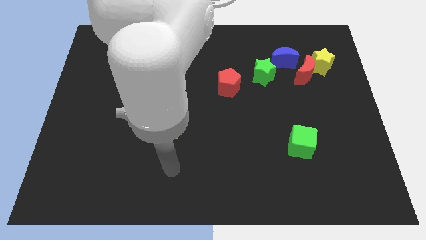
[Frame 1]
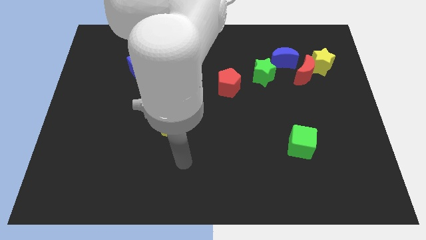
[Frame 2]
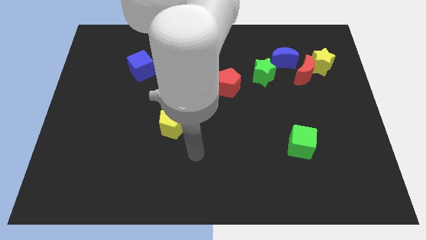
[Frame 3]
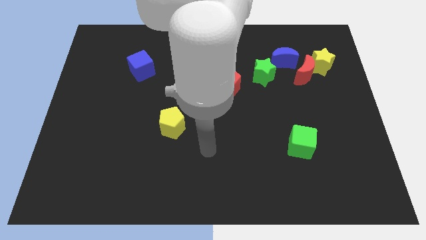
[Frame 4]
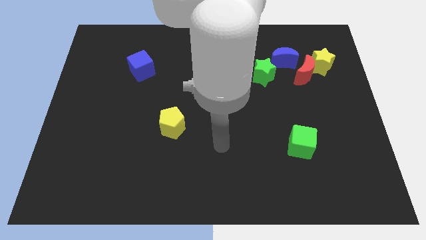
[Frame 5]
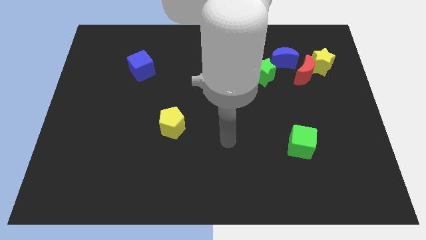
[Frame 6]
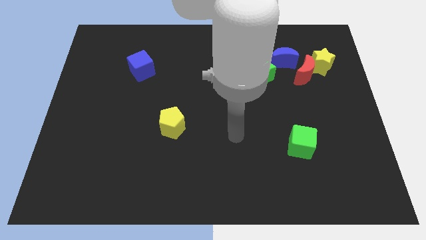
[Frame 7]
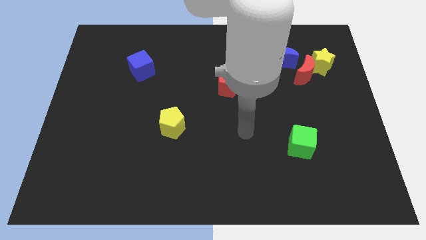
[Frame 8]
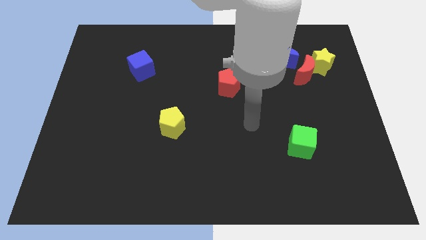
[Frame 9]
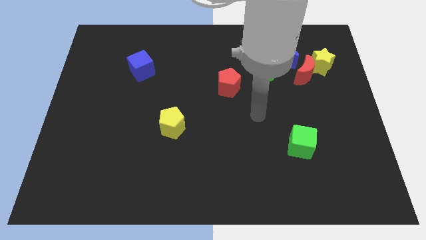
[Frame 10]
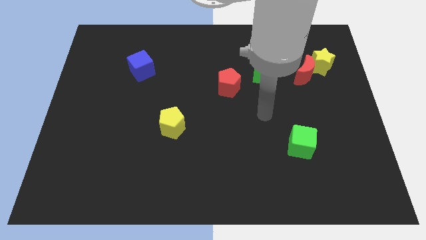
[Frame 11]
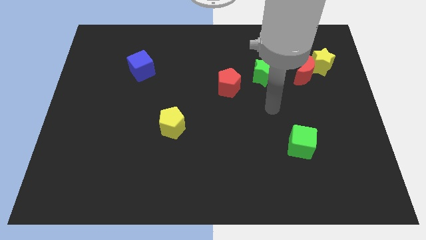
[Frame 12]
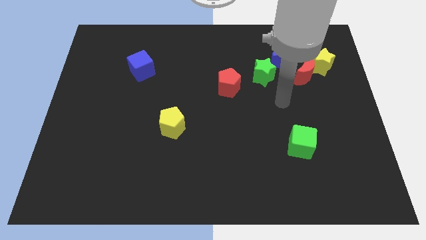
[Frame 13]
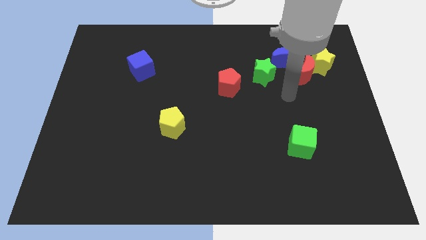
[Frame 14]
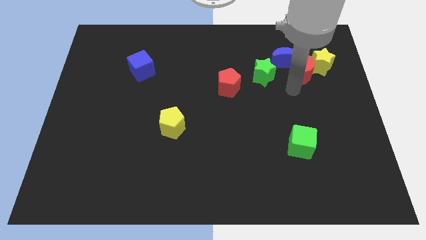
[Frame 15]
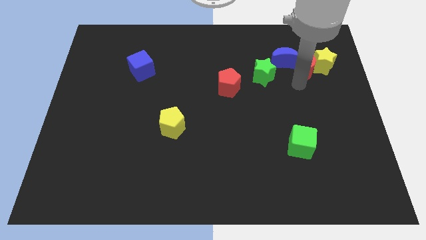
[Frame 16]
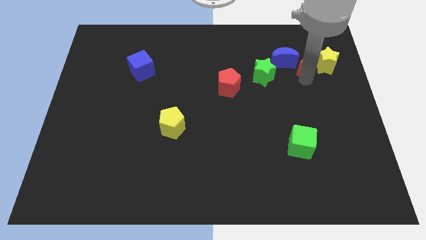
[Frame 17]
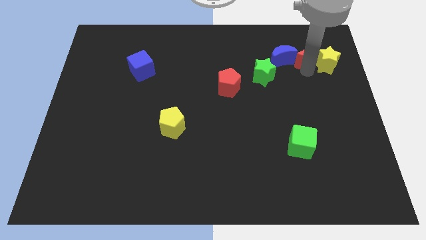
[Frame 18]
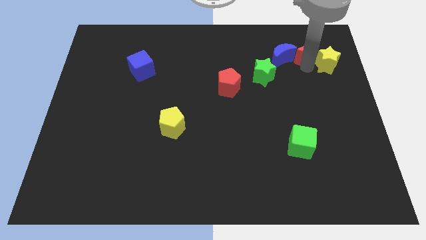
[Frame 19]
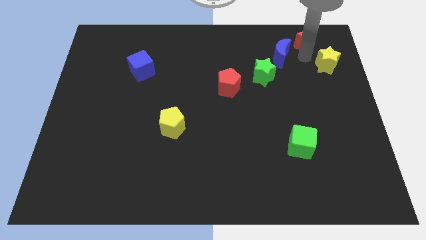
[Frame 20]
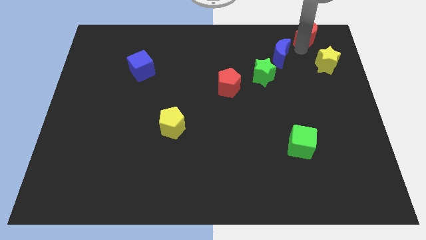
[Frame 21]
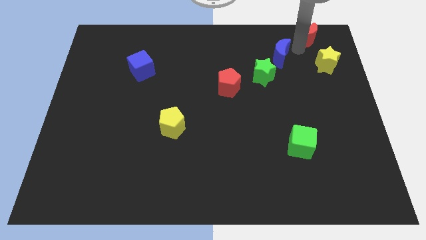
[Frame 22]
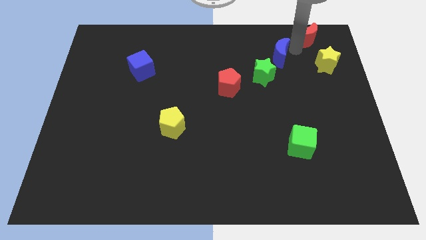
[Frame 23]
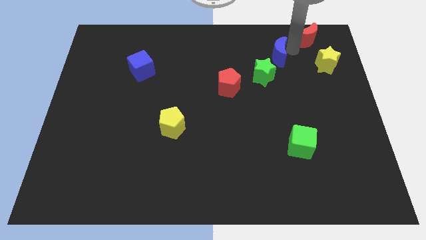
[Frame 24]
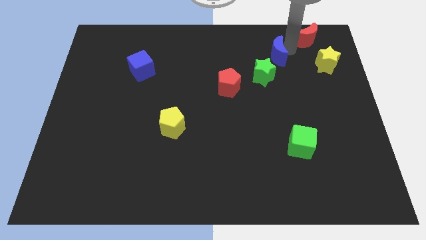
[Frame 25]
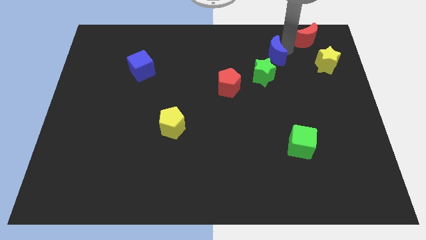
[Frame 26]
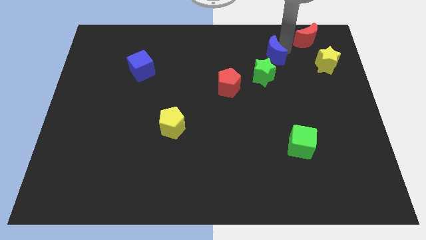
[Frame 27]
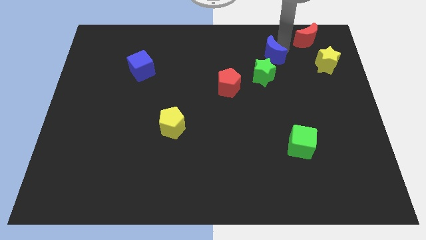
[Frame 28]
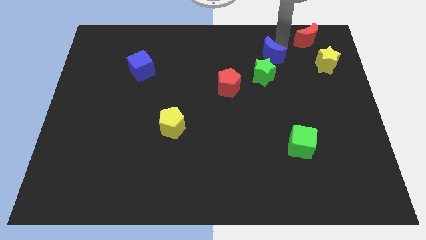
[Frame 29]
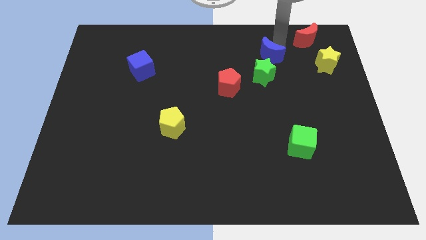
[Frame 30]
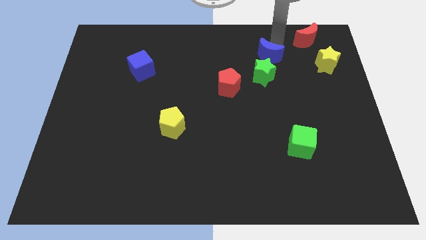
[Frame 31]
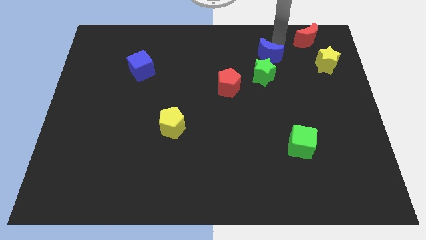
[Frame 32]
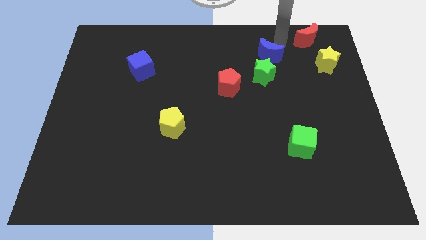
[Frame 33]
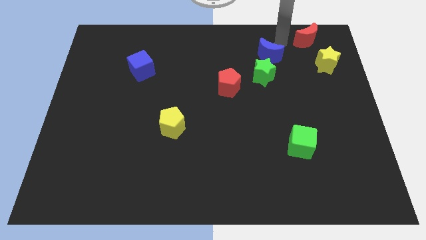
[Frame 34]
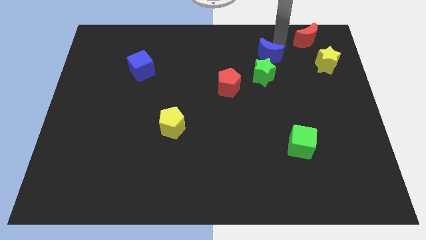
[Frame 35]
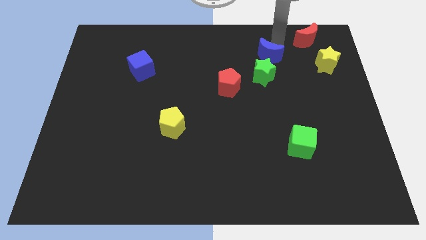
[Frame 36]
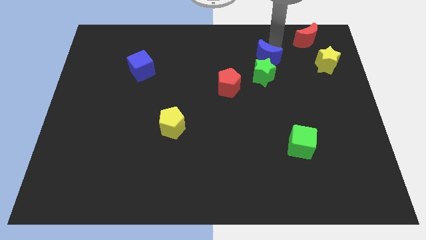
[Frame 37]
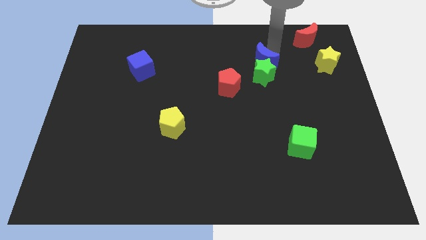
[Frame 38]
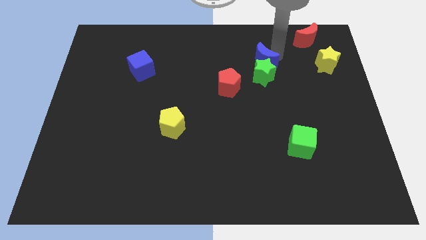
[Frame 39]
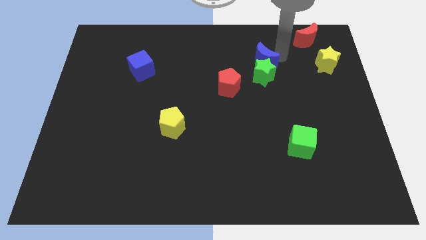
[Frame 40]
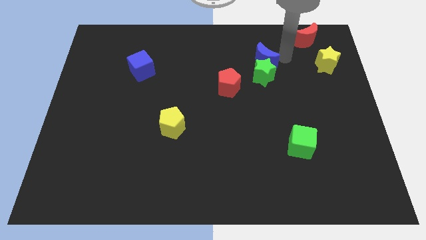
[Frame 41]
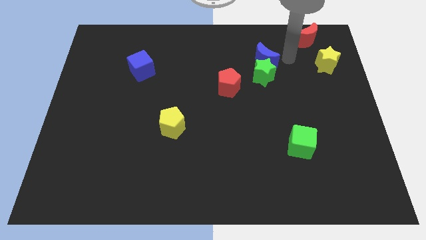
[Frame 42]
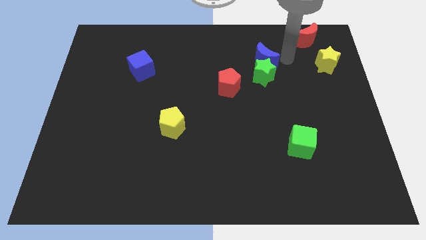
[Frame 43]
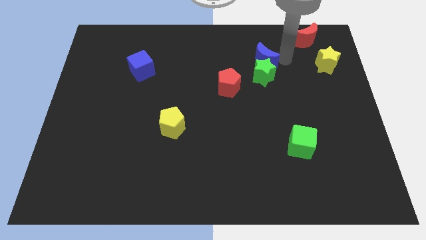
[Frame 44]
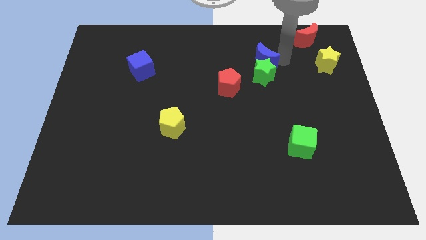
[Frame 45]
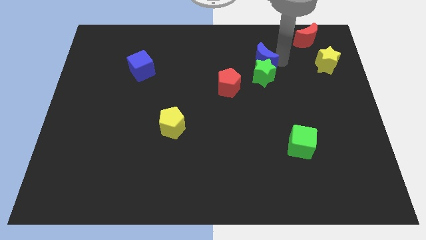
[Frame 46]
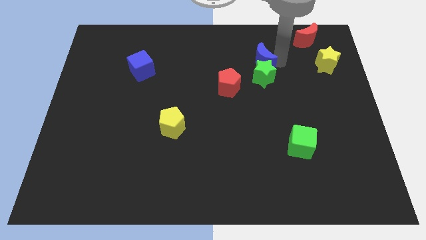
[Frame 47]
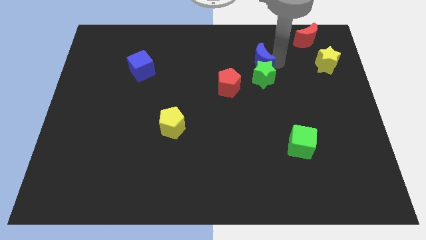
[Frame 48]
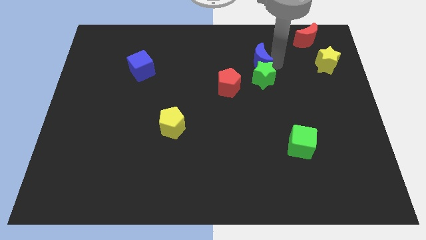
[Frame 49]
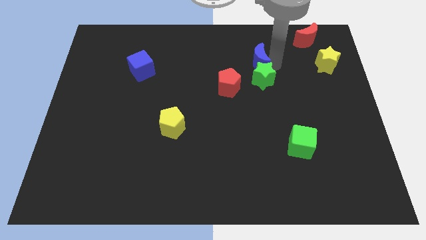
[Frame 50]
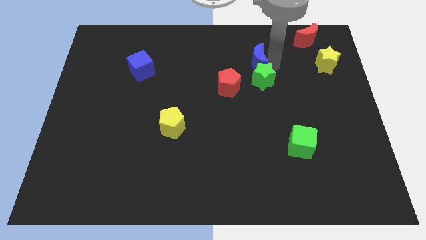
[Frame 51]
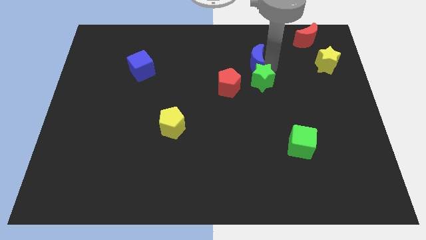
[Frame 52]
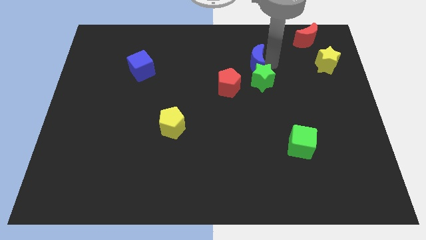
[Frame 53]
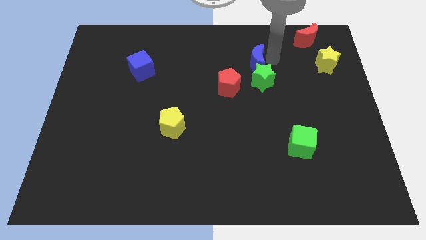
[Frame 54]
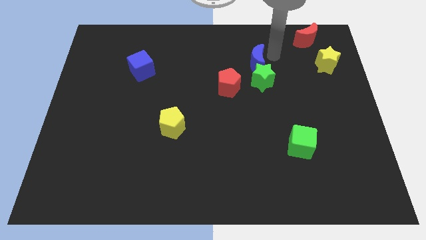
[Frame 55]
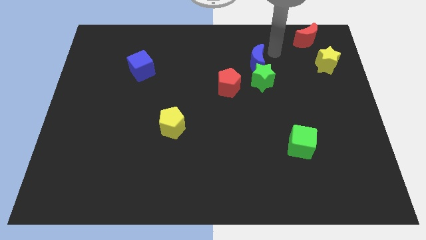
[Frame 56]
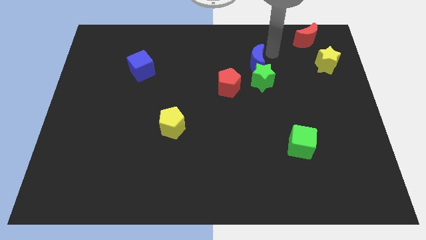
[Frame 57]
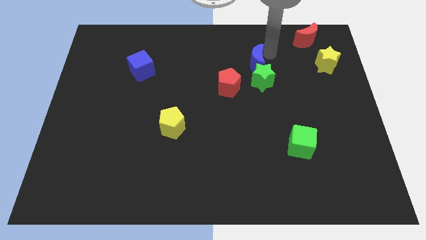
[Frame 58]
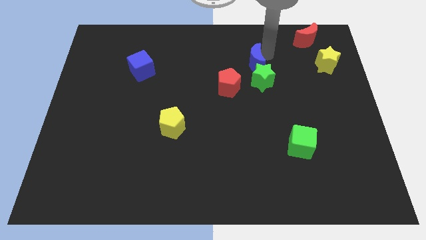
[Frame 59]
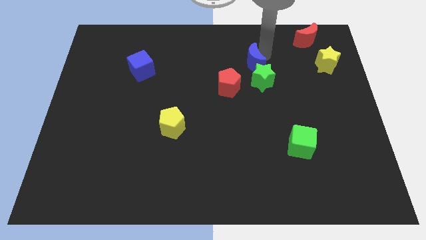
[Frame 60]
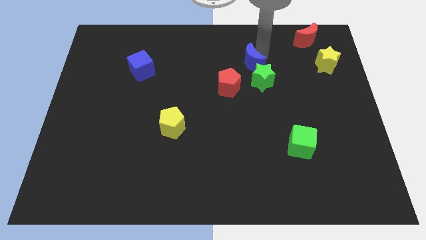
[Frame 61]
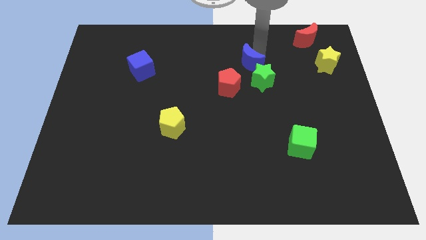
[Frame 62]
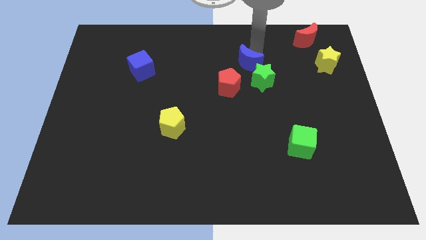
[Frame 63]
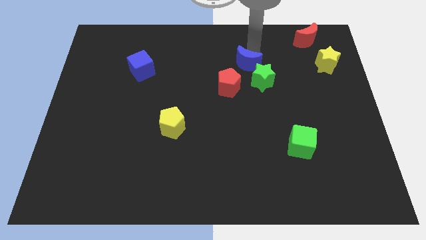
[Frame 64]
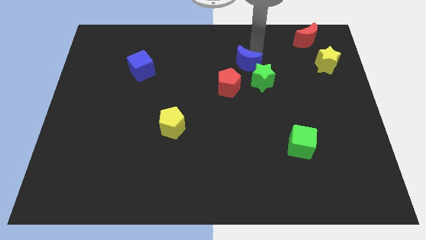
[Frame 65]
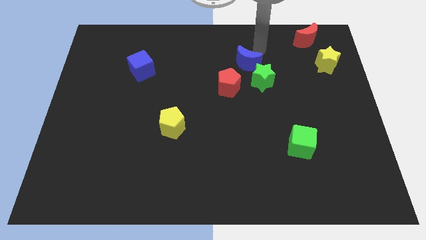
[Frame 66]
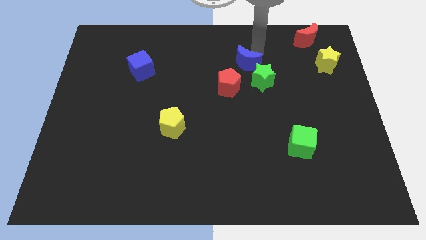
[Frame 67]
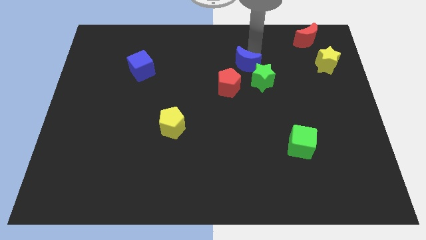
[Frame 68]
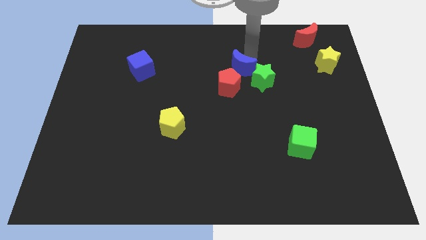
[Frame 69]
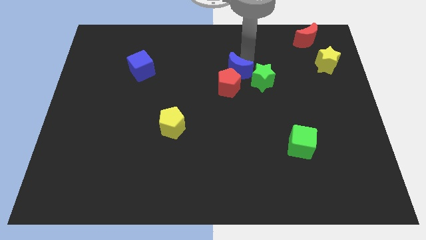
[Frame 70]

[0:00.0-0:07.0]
push the blue moon to the red pentagon
